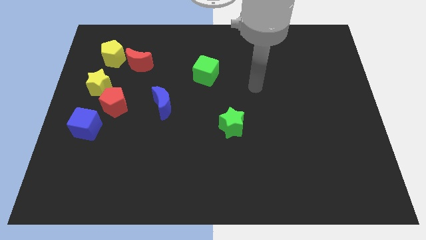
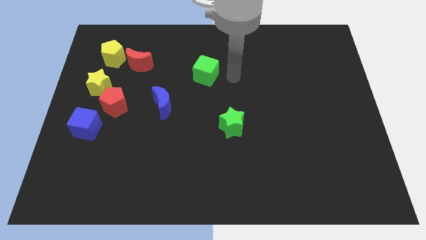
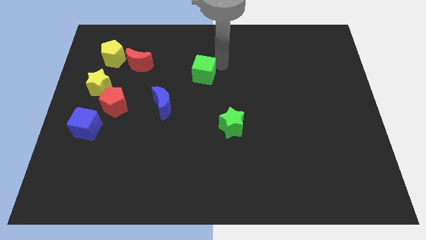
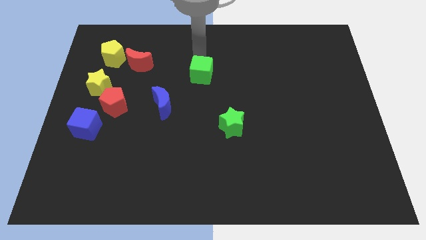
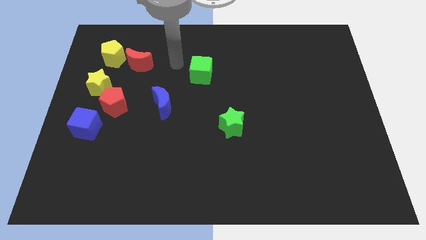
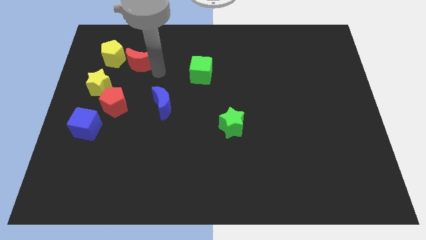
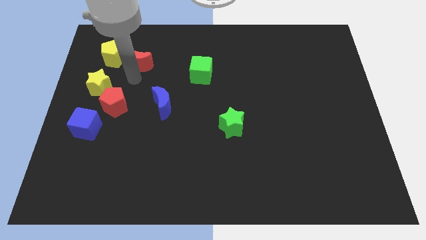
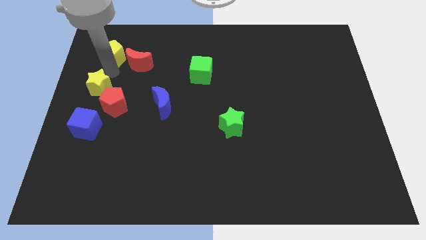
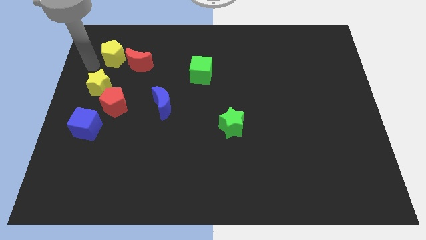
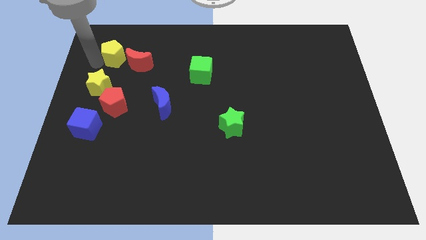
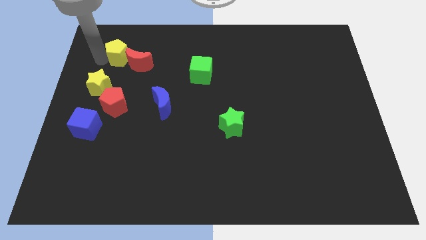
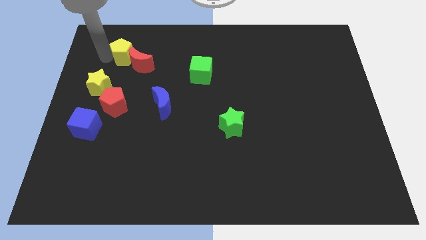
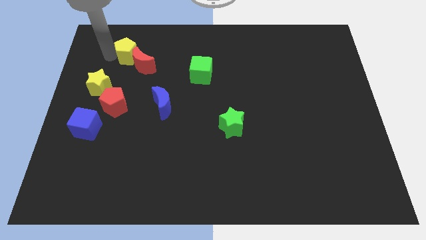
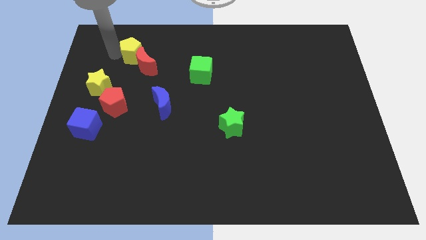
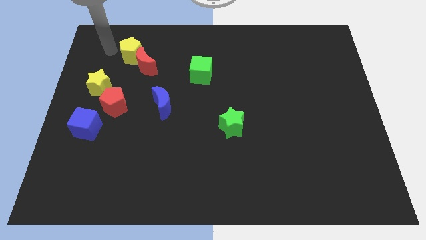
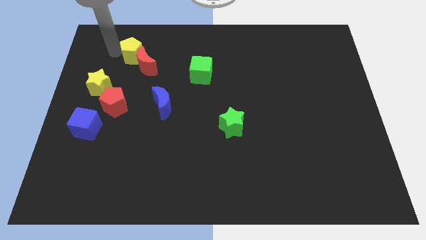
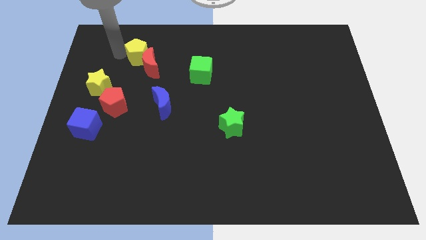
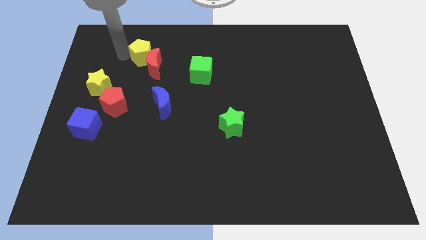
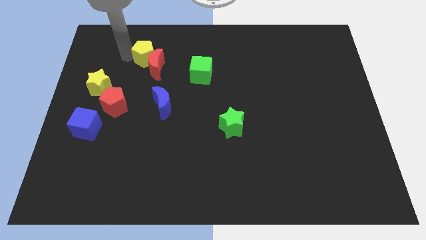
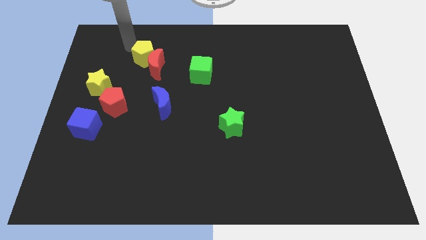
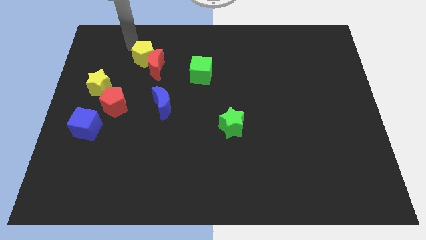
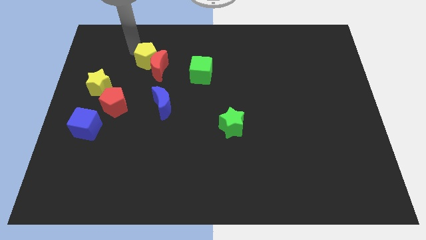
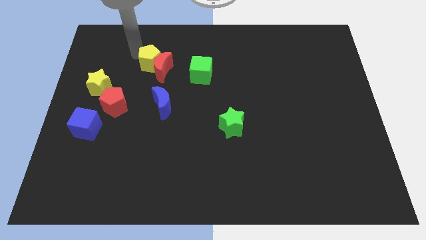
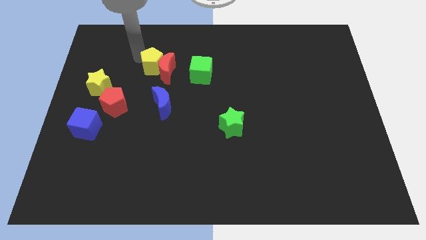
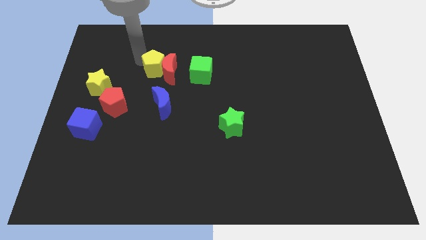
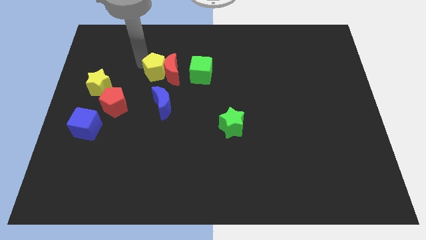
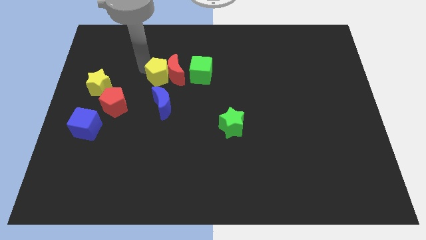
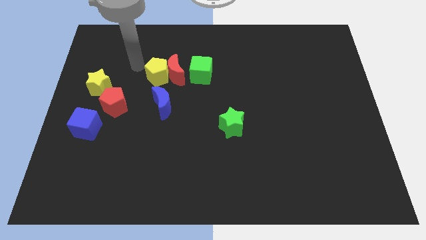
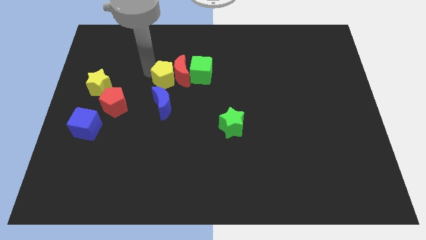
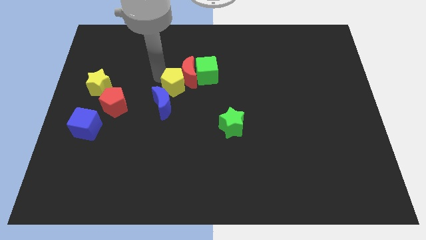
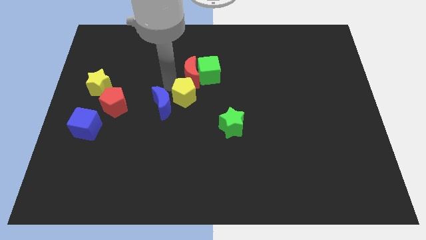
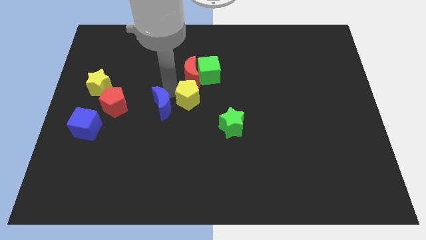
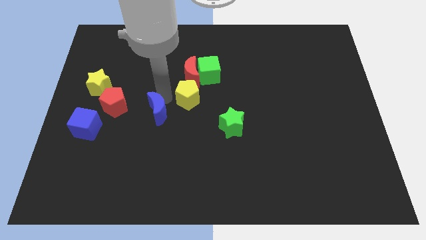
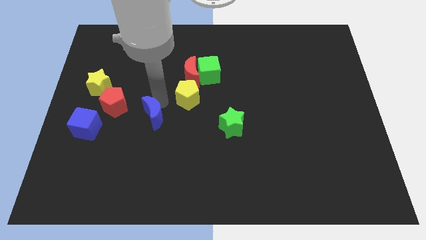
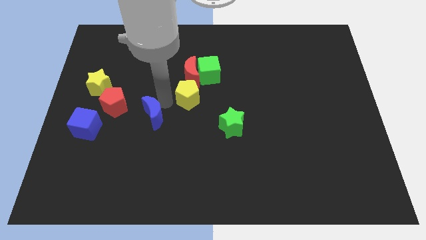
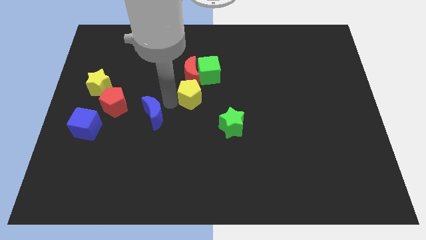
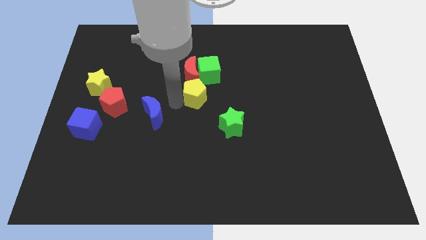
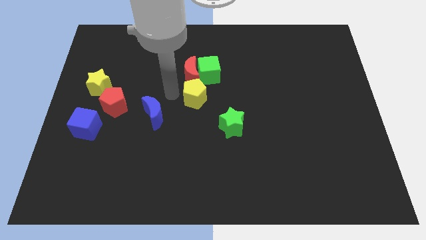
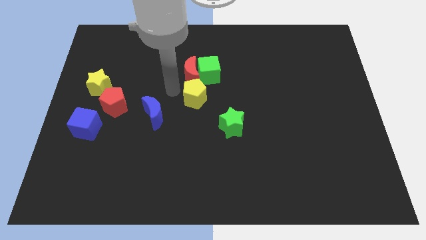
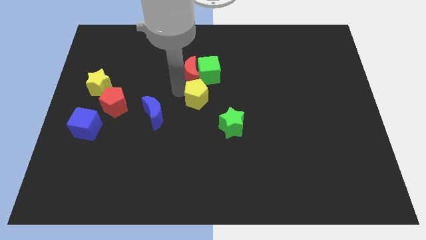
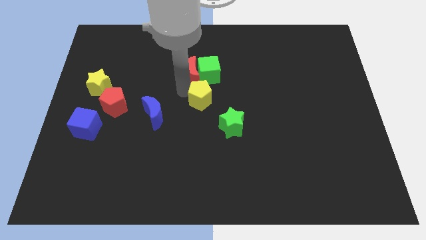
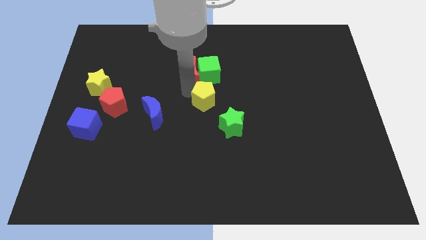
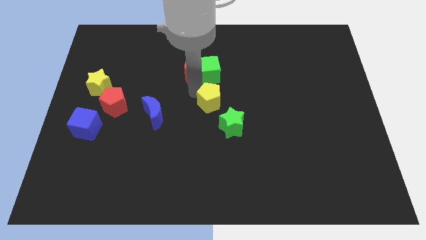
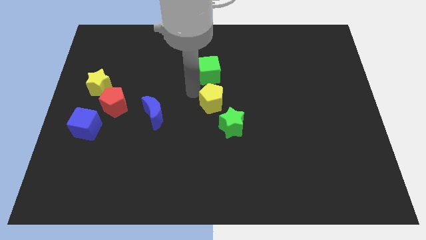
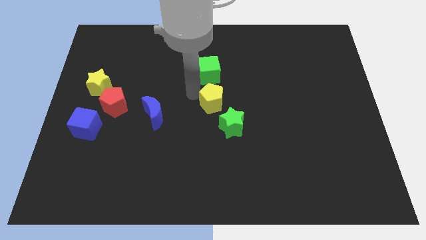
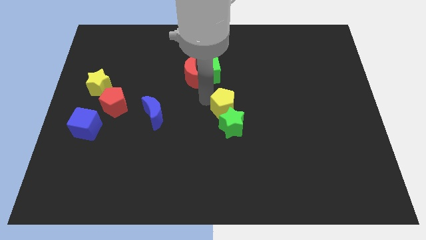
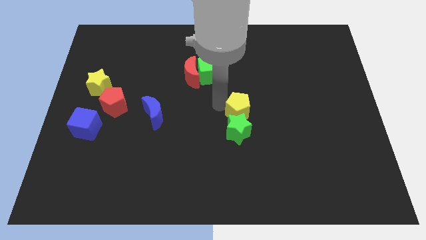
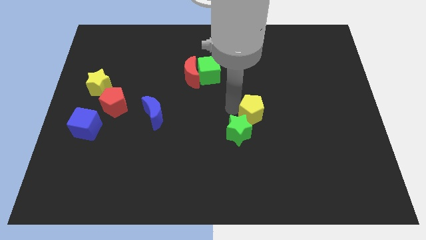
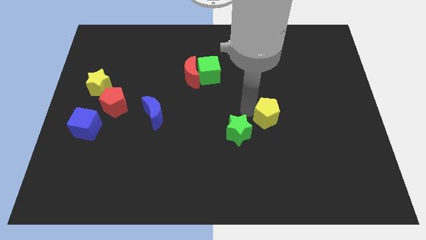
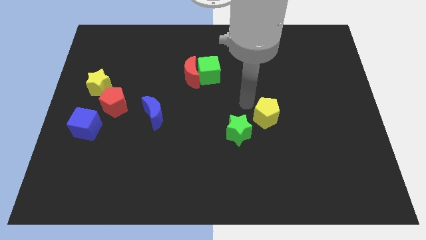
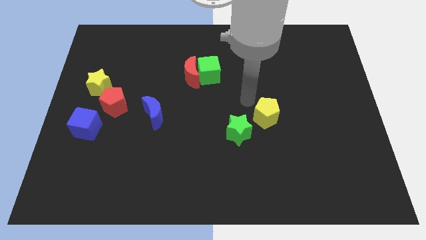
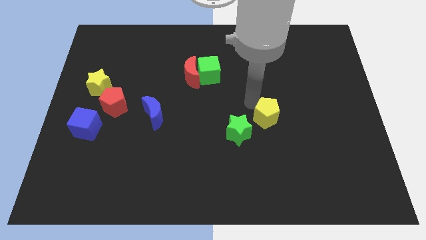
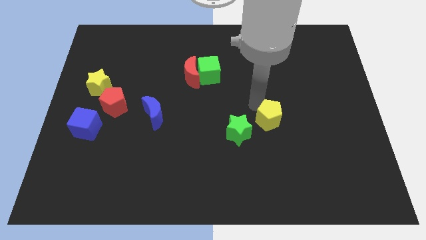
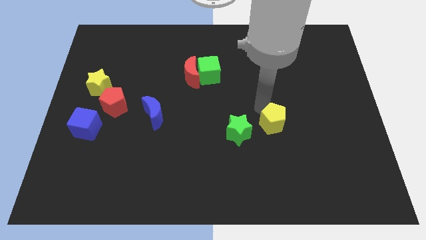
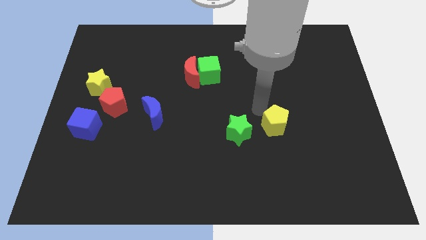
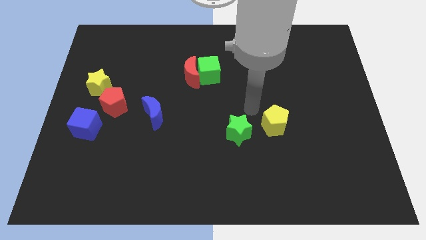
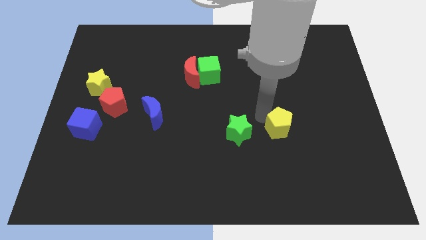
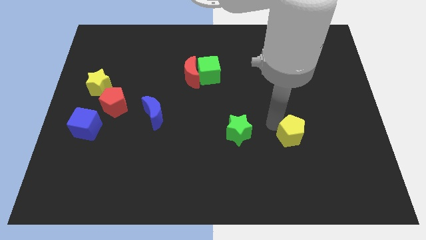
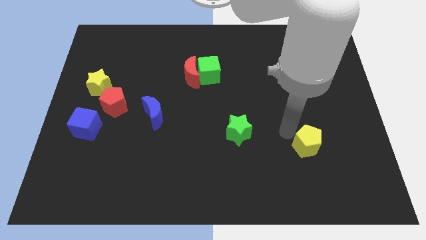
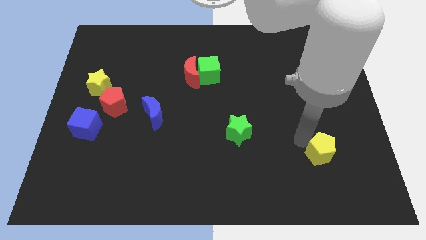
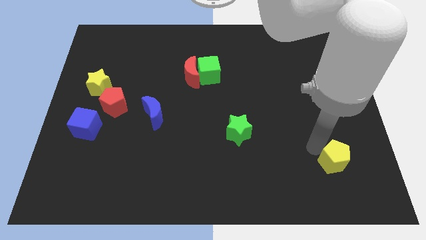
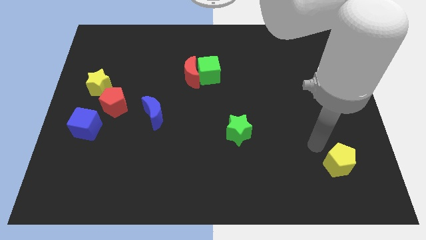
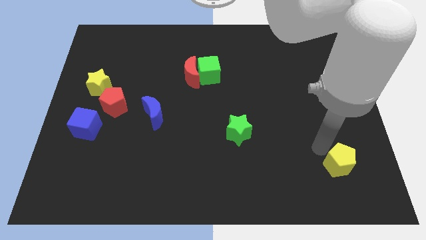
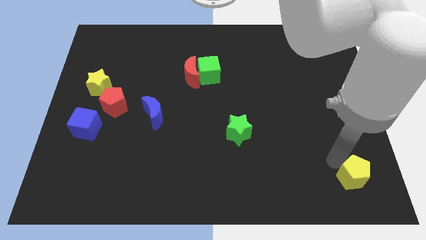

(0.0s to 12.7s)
put the yellow pentagon to the lower right corner

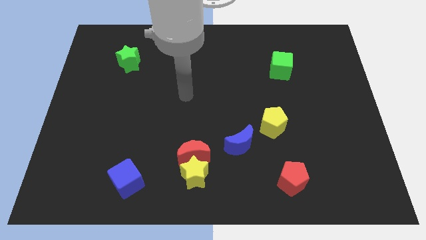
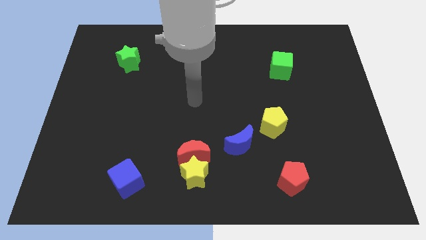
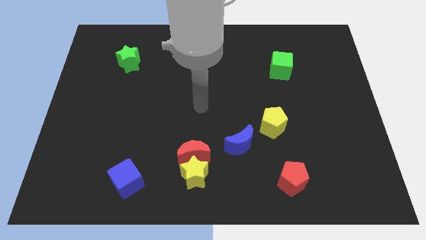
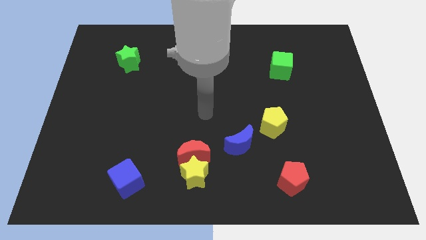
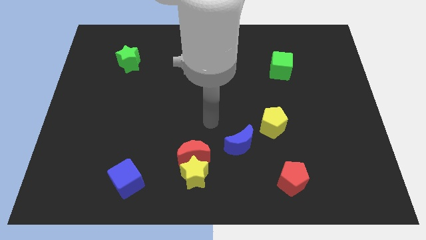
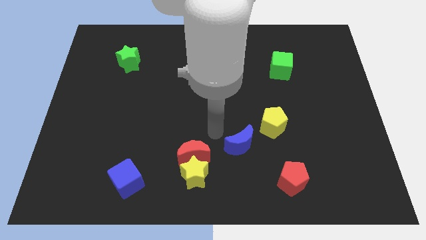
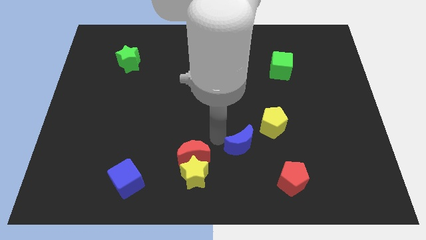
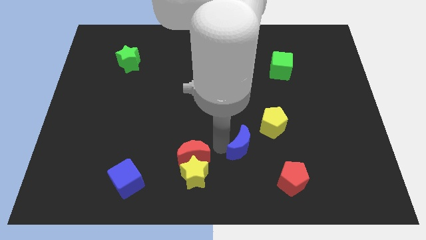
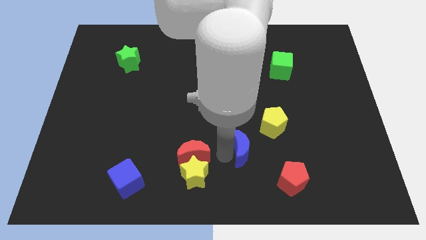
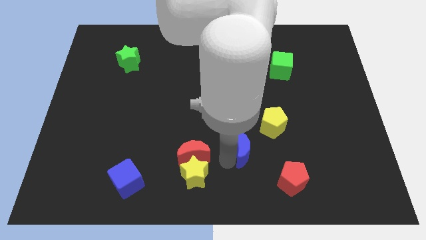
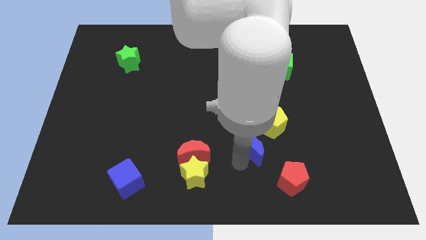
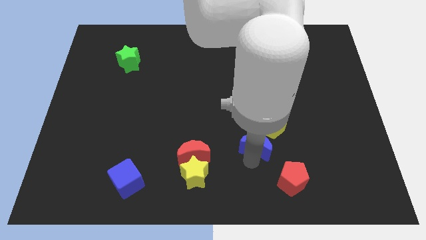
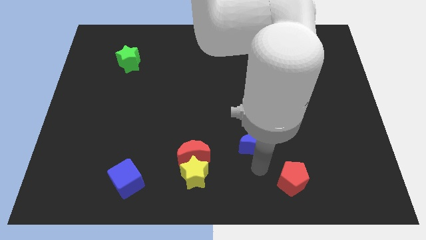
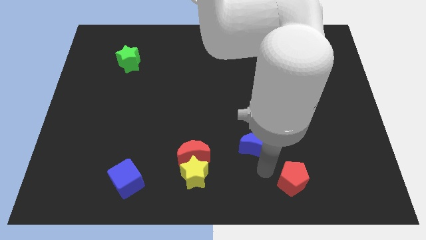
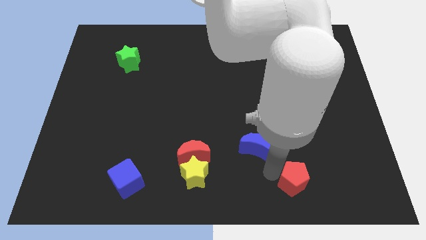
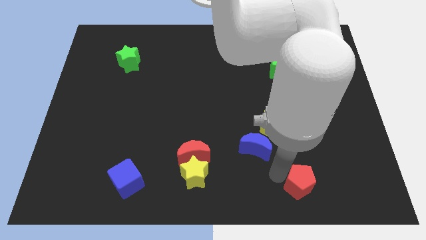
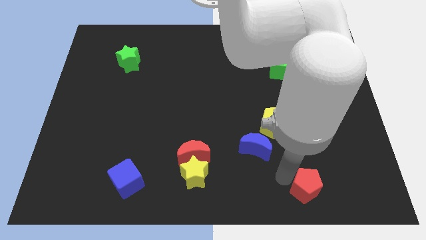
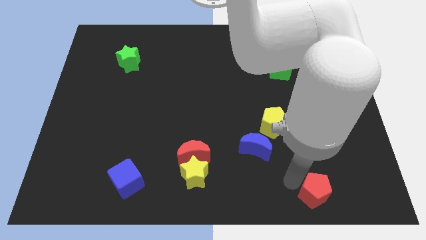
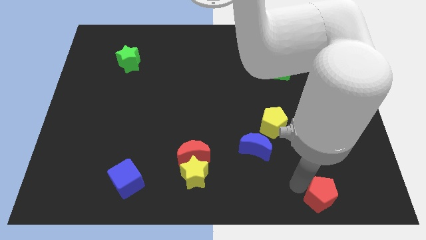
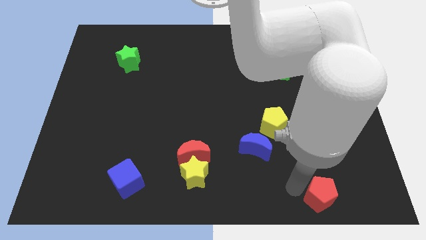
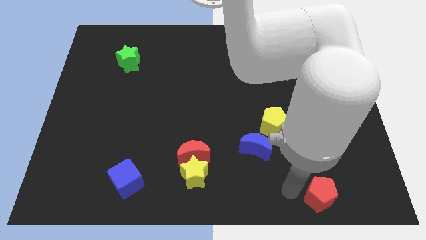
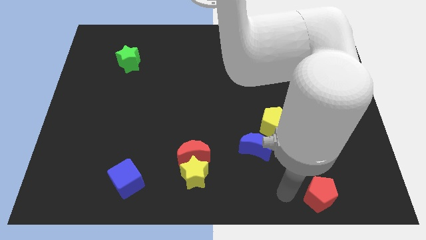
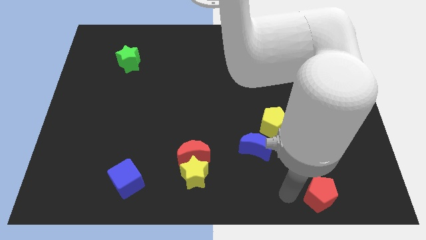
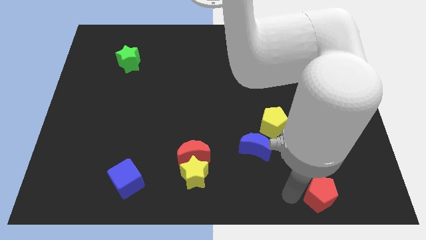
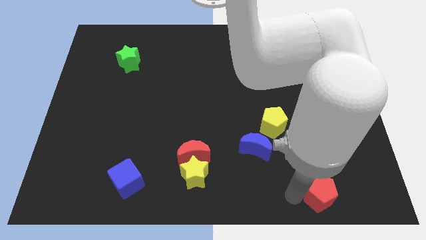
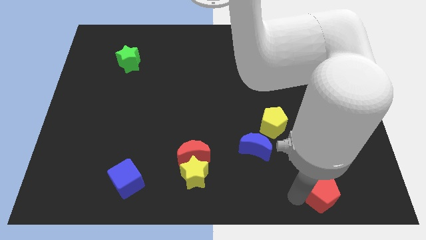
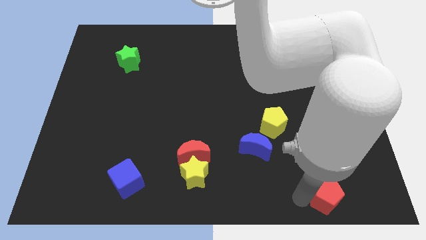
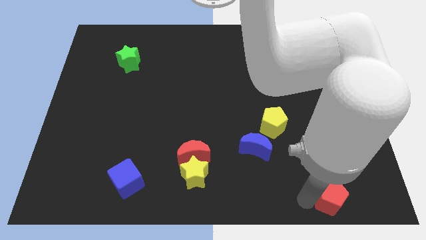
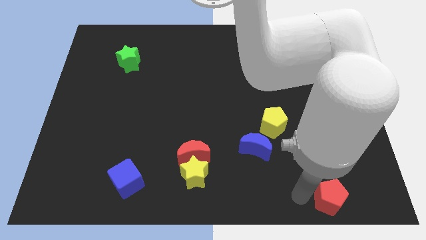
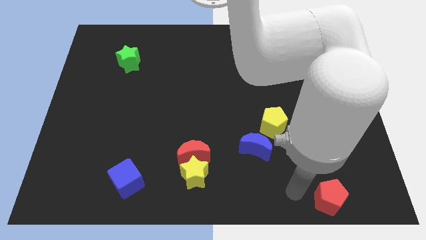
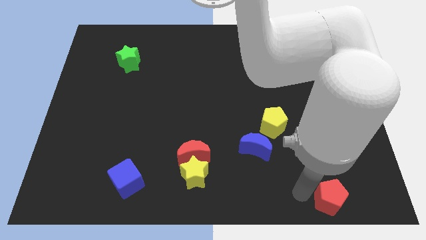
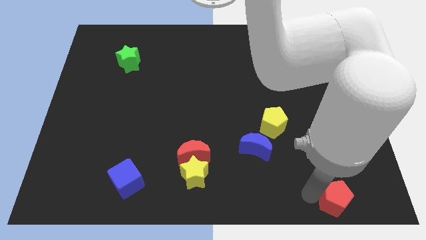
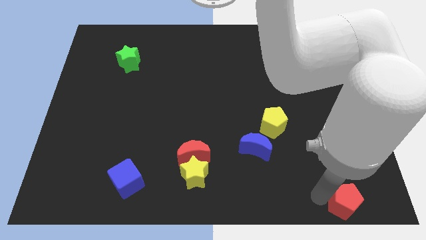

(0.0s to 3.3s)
push the red pentagon to the lower right corner
